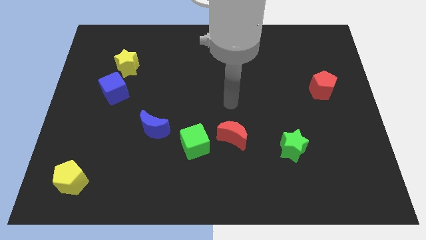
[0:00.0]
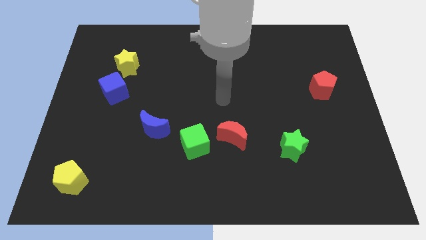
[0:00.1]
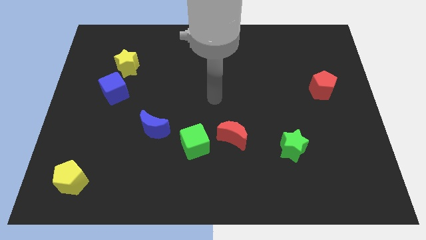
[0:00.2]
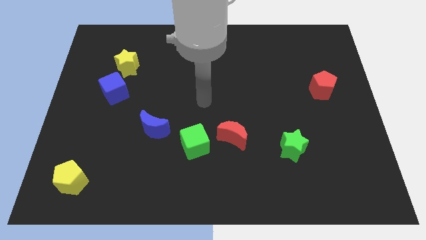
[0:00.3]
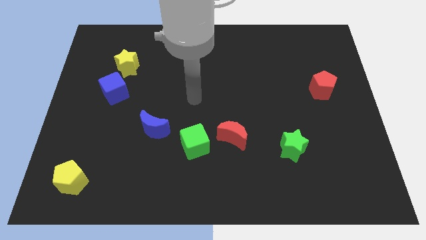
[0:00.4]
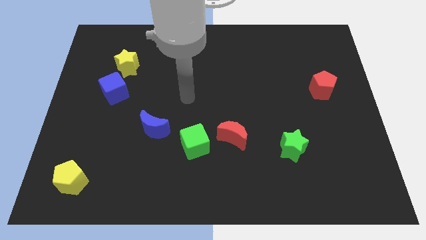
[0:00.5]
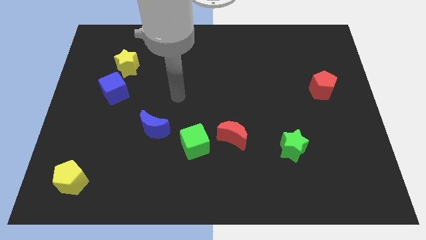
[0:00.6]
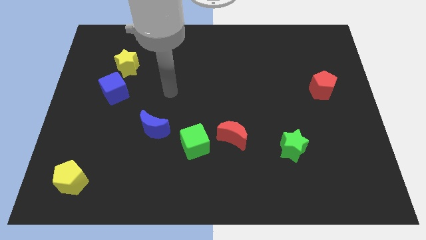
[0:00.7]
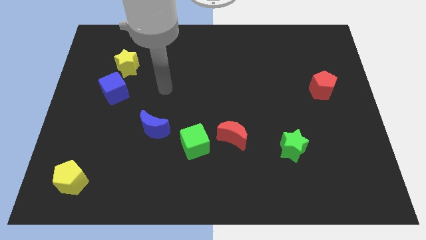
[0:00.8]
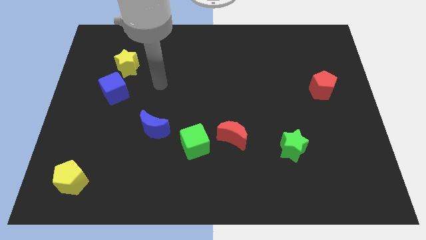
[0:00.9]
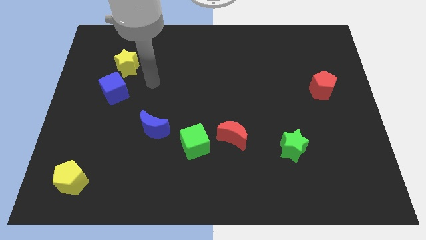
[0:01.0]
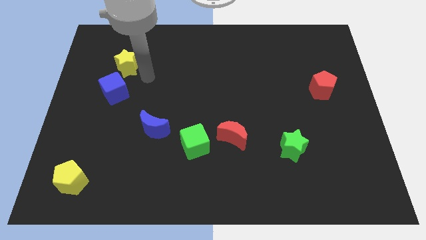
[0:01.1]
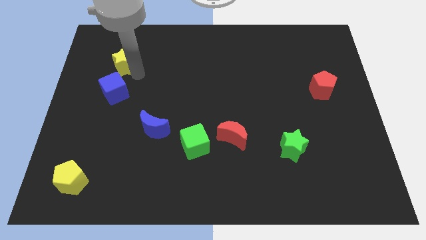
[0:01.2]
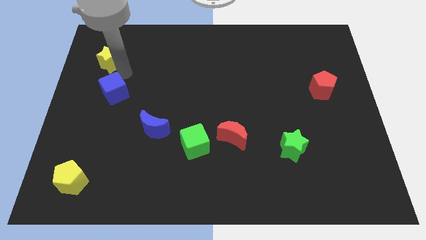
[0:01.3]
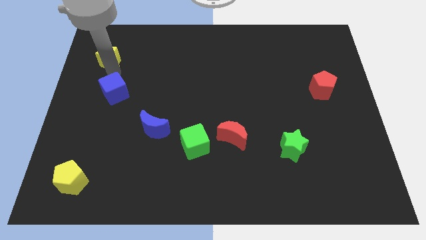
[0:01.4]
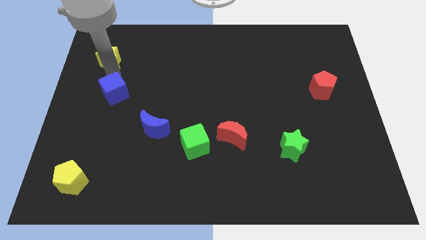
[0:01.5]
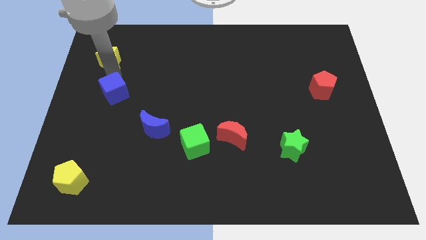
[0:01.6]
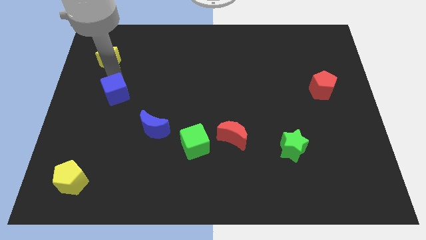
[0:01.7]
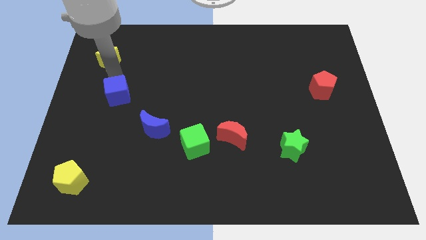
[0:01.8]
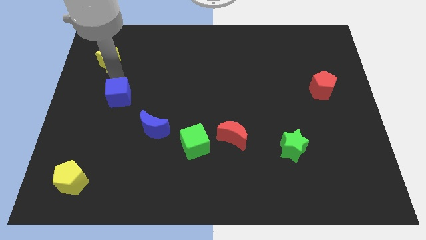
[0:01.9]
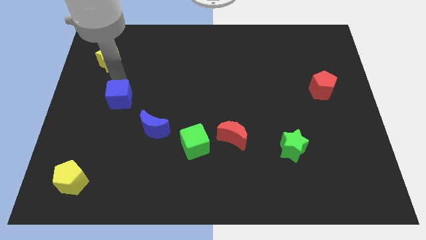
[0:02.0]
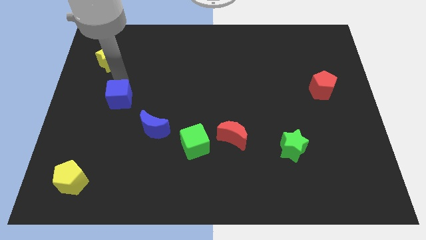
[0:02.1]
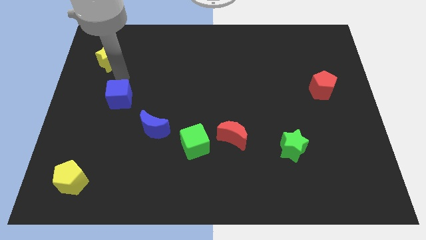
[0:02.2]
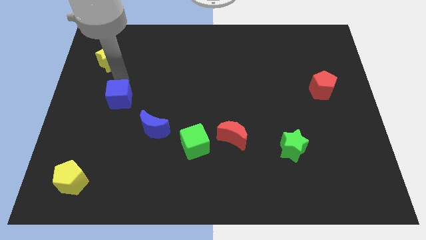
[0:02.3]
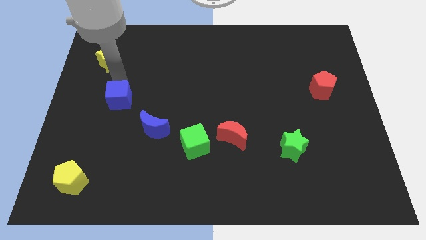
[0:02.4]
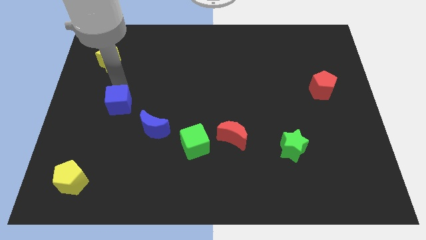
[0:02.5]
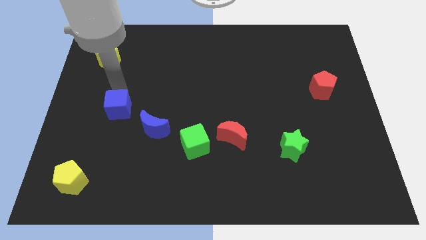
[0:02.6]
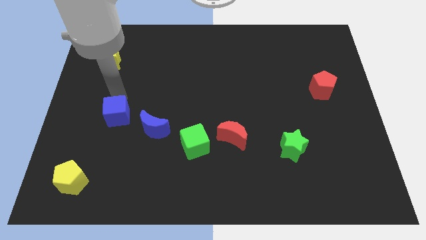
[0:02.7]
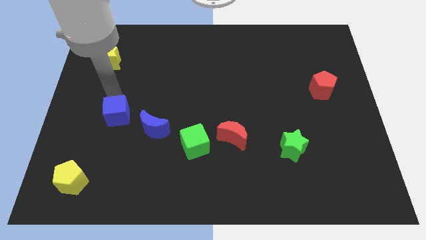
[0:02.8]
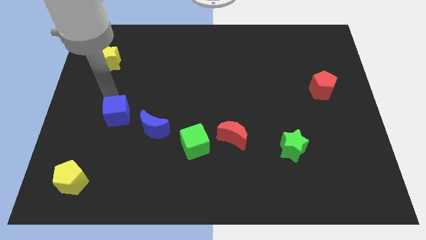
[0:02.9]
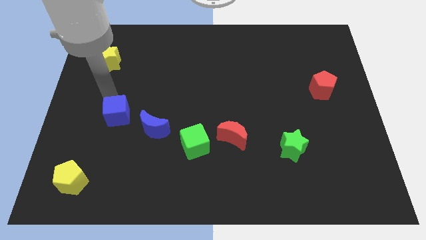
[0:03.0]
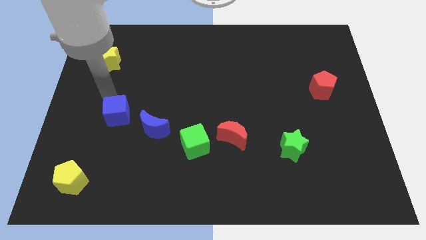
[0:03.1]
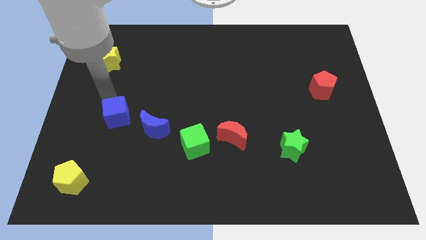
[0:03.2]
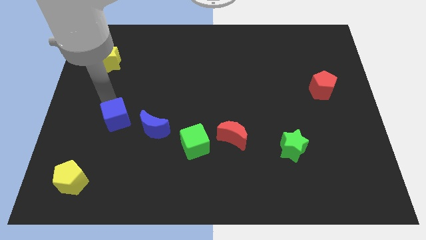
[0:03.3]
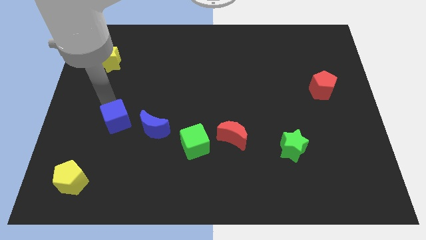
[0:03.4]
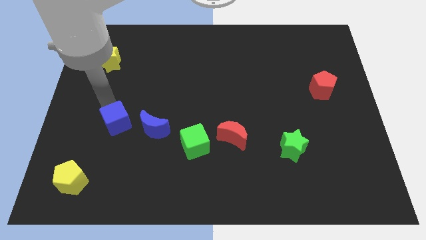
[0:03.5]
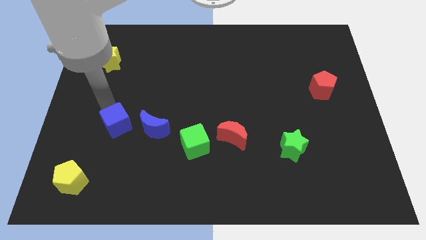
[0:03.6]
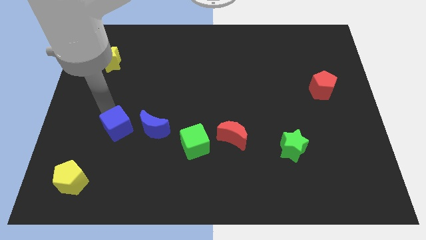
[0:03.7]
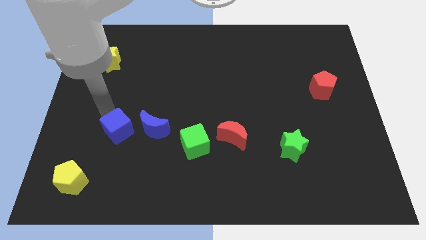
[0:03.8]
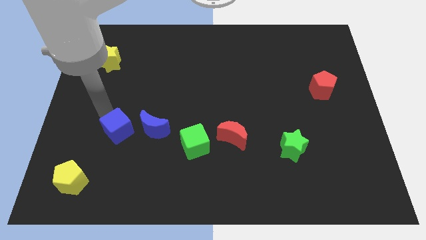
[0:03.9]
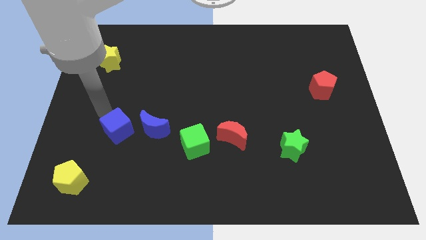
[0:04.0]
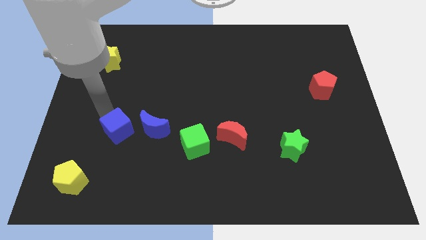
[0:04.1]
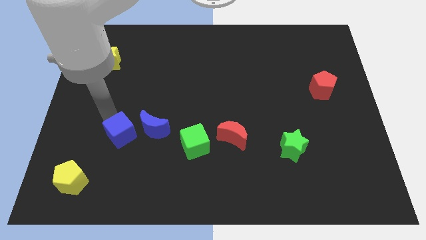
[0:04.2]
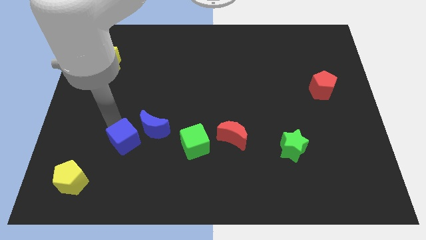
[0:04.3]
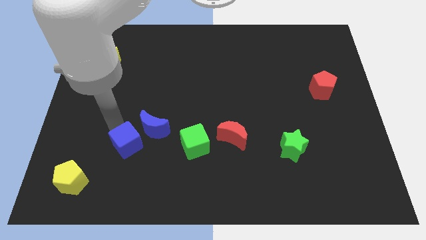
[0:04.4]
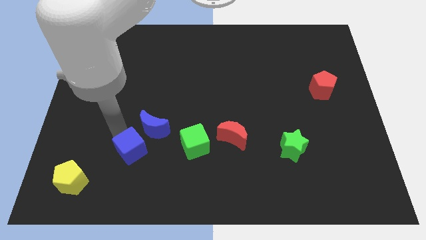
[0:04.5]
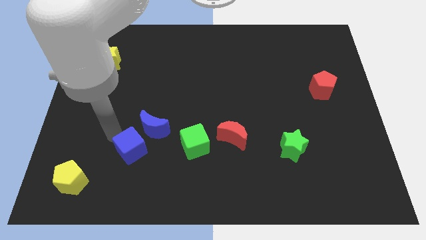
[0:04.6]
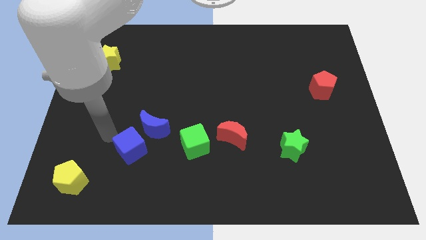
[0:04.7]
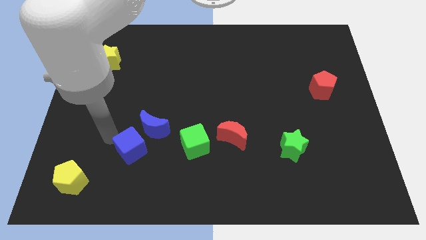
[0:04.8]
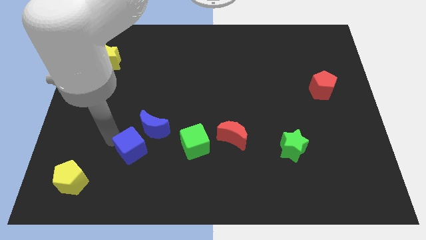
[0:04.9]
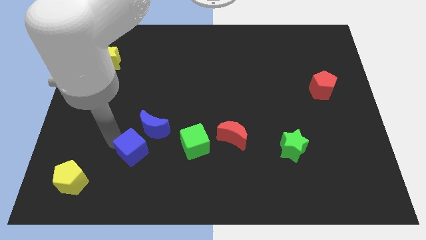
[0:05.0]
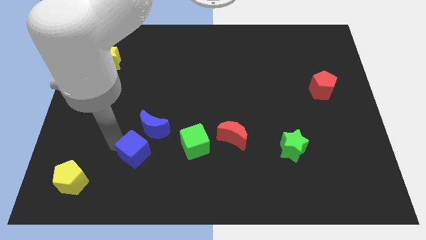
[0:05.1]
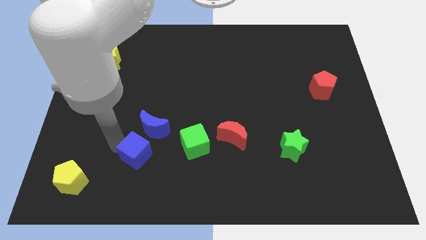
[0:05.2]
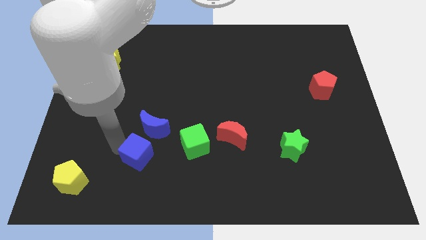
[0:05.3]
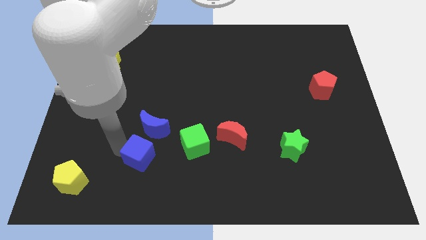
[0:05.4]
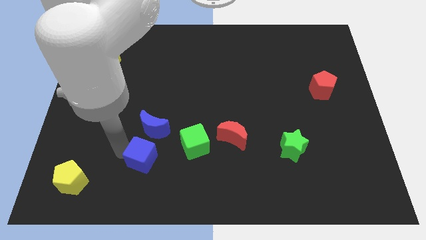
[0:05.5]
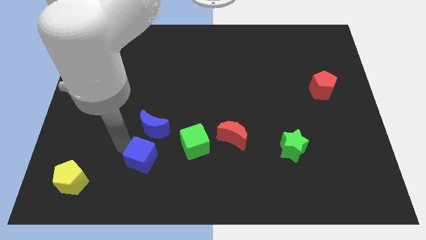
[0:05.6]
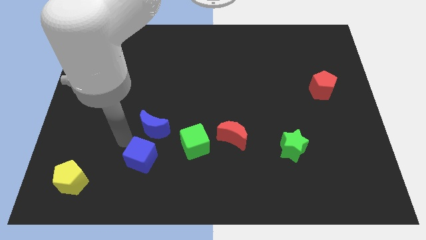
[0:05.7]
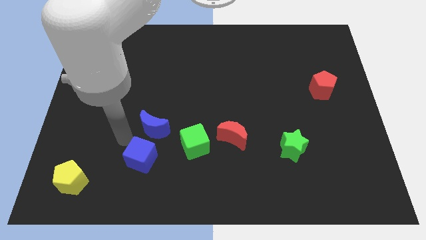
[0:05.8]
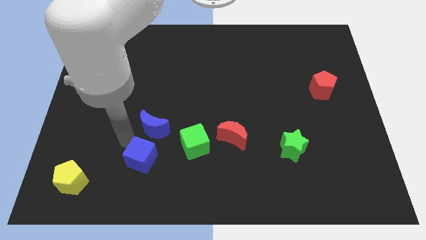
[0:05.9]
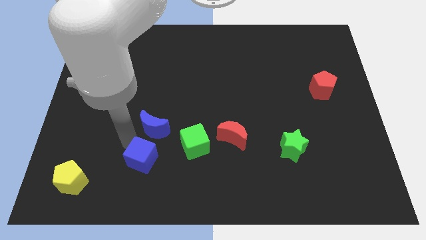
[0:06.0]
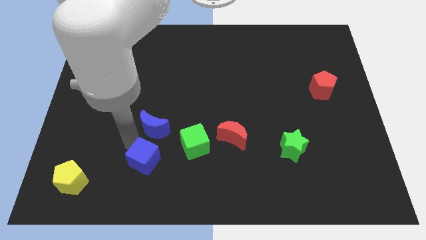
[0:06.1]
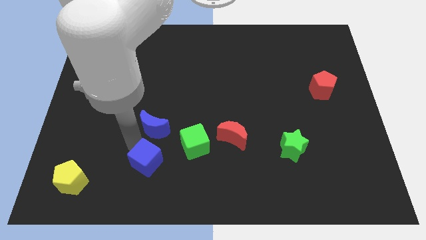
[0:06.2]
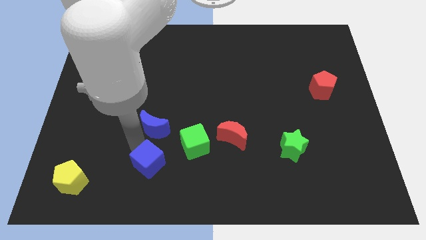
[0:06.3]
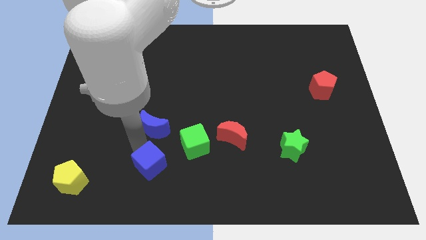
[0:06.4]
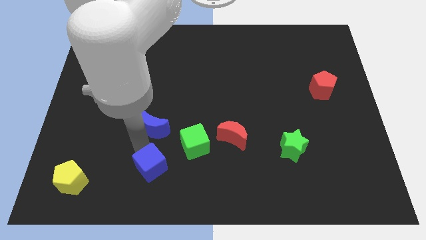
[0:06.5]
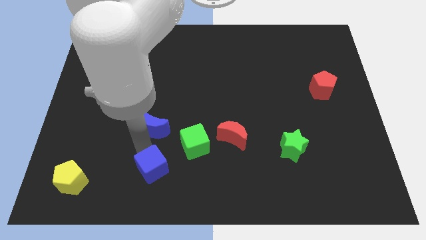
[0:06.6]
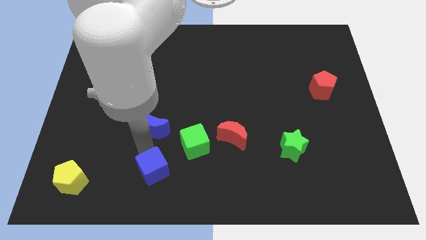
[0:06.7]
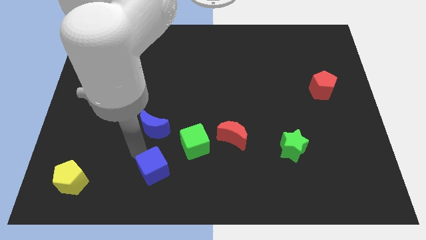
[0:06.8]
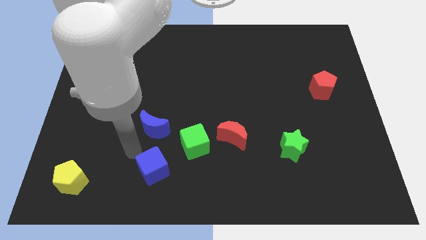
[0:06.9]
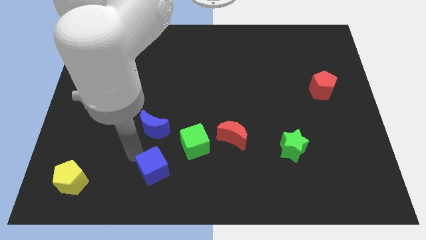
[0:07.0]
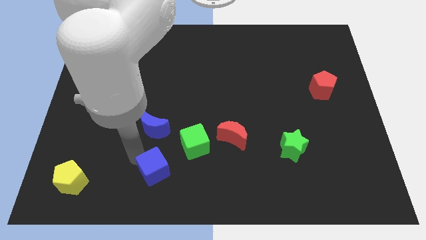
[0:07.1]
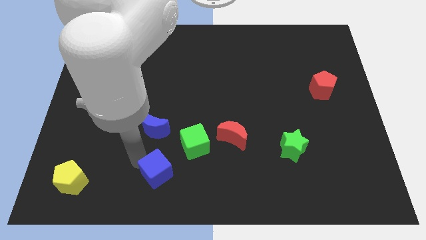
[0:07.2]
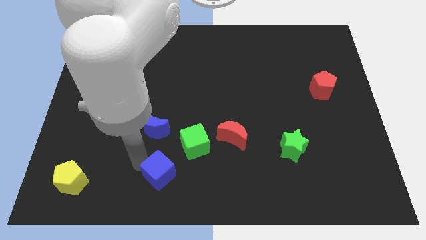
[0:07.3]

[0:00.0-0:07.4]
put the blue cube to the bottom side
